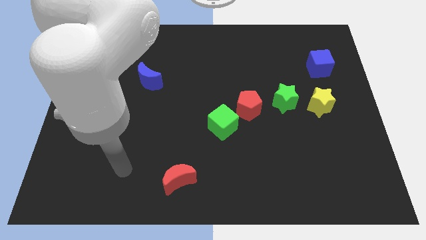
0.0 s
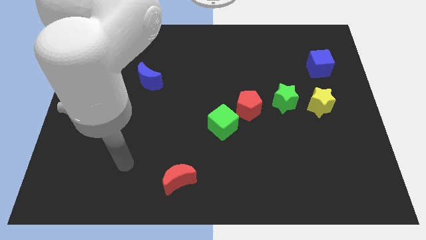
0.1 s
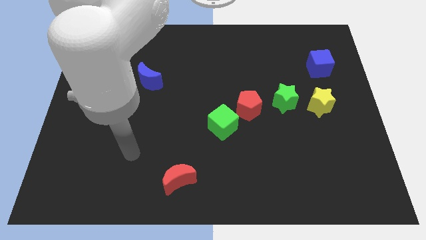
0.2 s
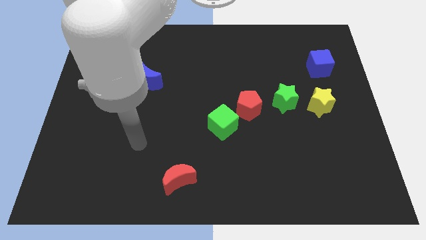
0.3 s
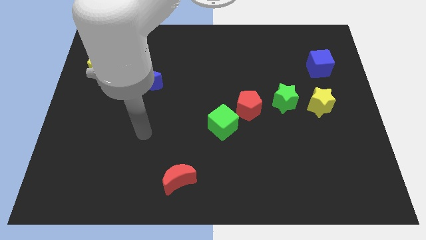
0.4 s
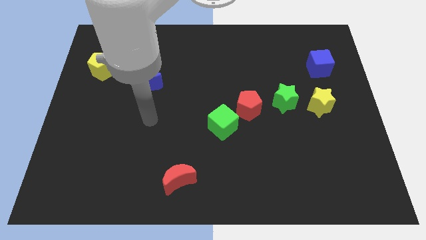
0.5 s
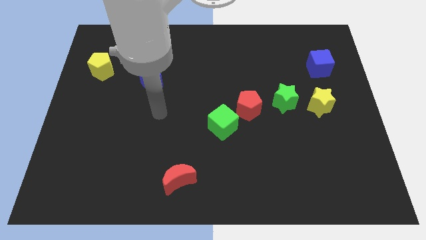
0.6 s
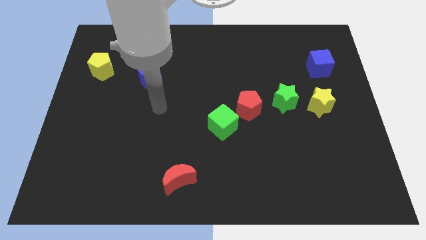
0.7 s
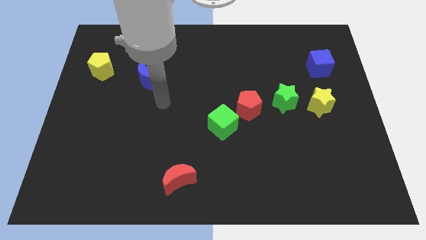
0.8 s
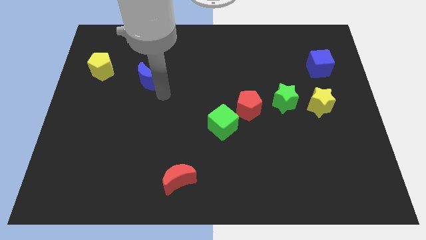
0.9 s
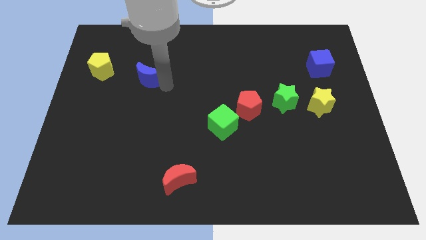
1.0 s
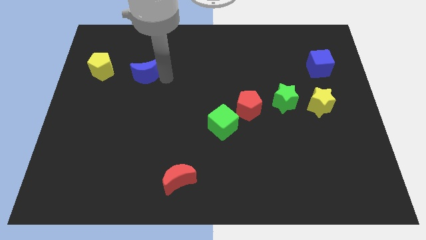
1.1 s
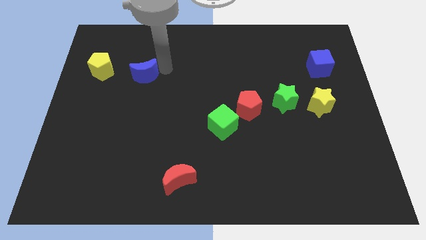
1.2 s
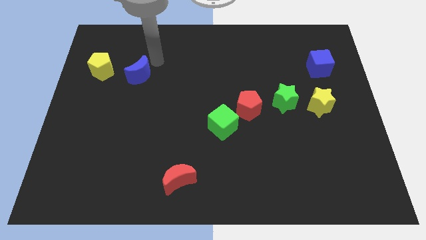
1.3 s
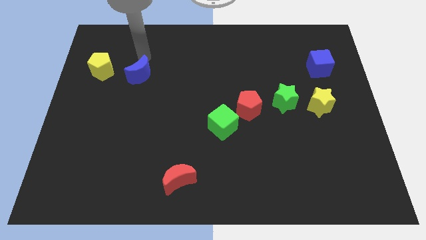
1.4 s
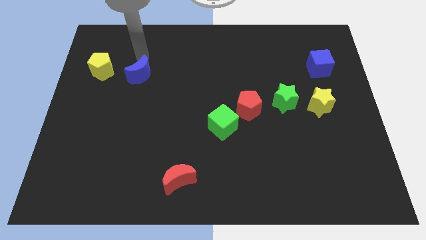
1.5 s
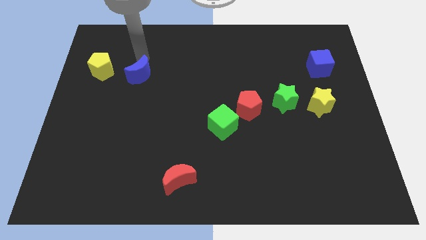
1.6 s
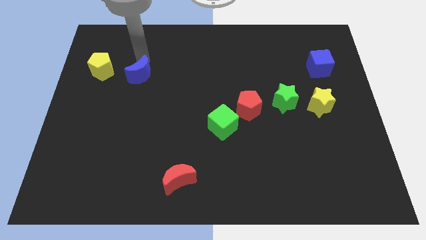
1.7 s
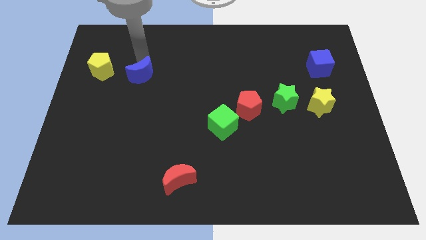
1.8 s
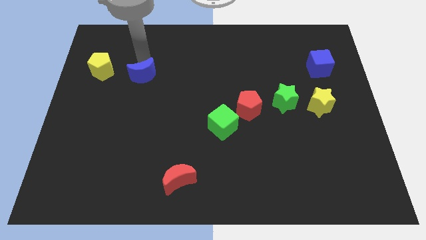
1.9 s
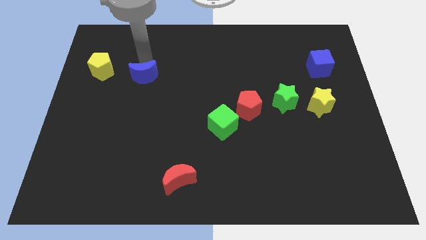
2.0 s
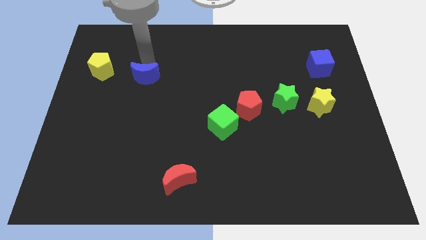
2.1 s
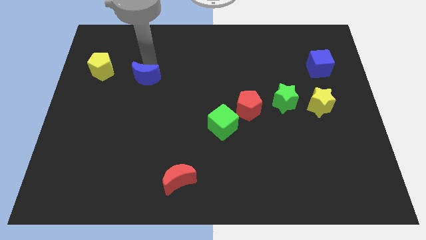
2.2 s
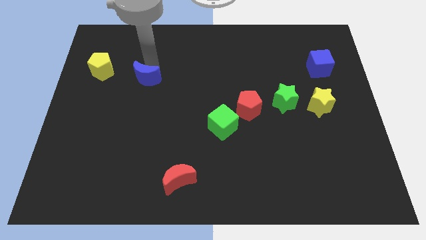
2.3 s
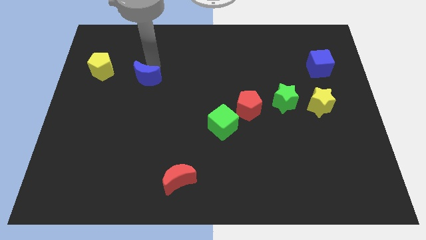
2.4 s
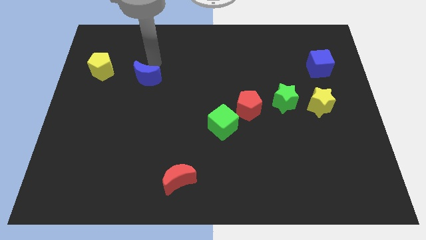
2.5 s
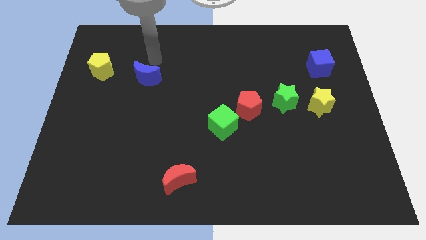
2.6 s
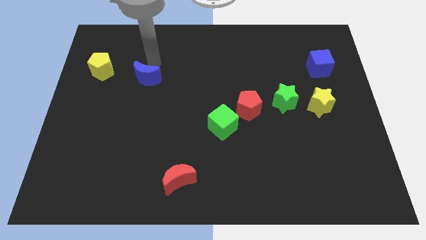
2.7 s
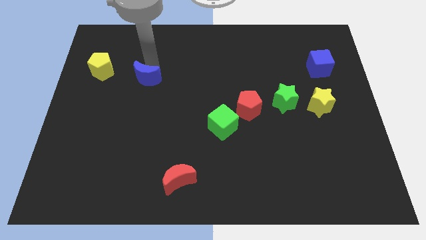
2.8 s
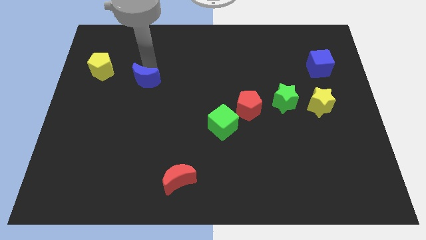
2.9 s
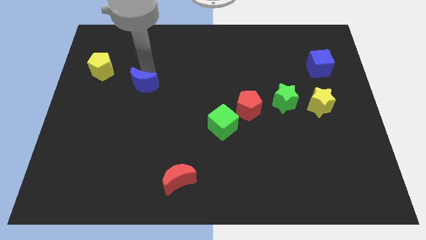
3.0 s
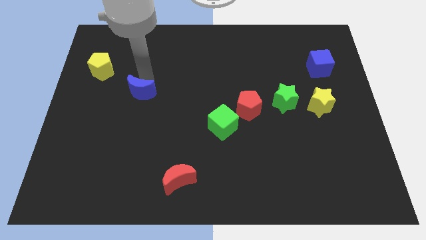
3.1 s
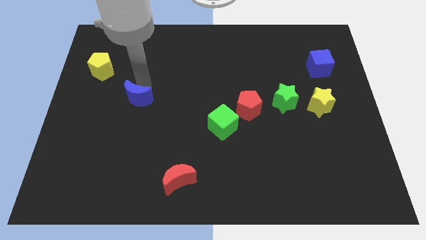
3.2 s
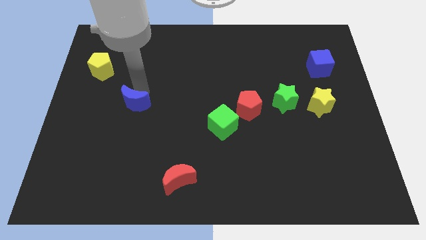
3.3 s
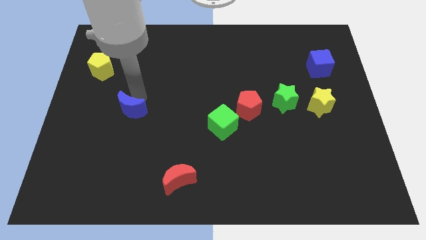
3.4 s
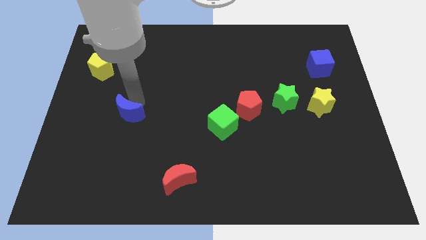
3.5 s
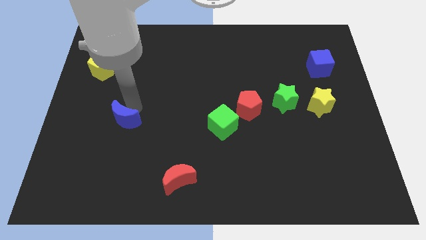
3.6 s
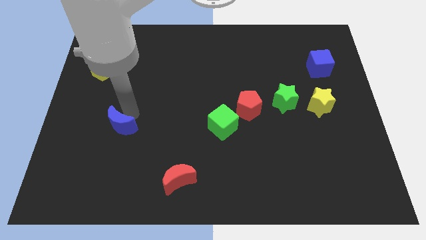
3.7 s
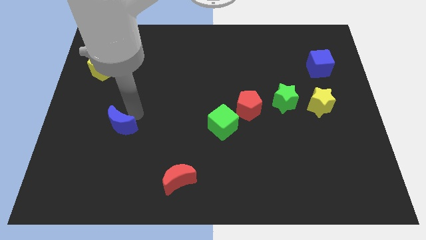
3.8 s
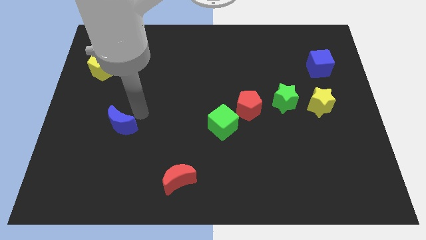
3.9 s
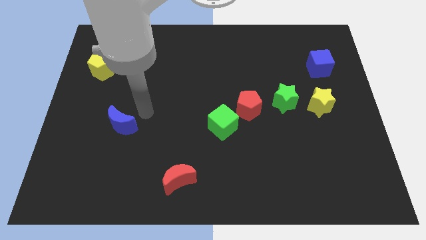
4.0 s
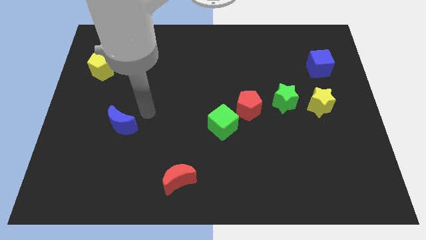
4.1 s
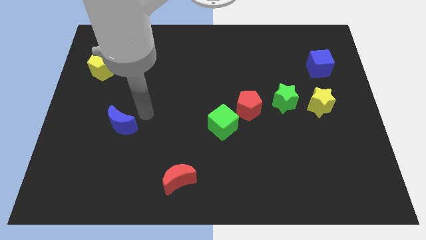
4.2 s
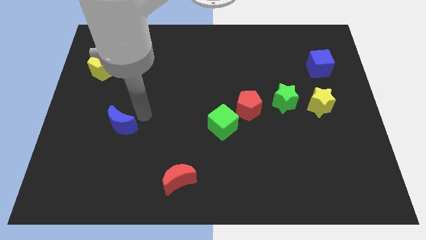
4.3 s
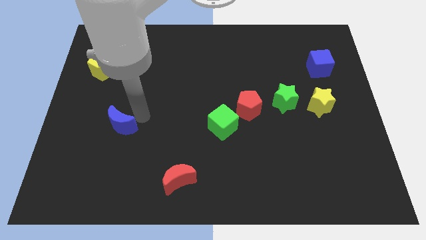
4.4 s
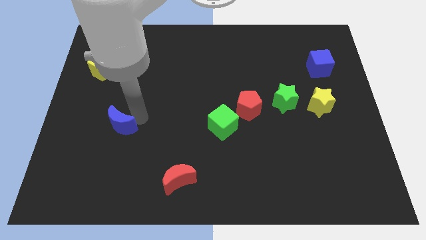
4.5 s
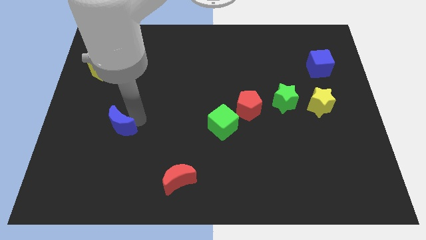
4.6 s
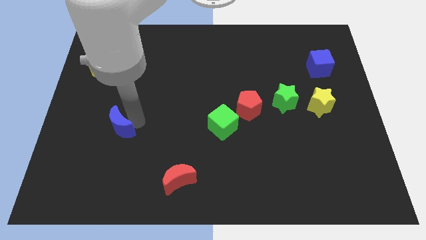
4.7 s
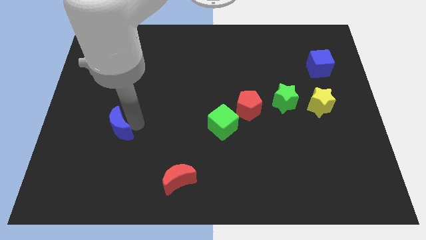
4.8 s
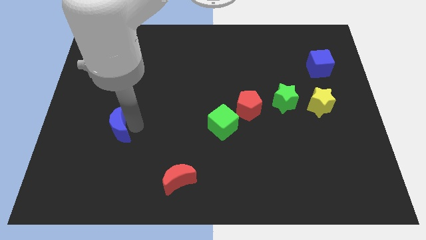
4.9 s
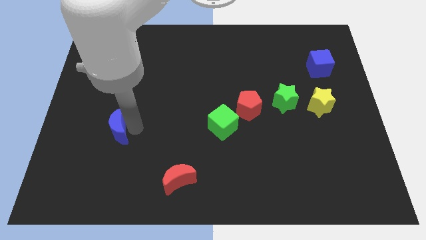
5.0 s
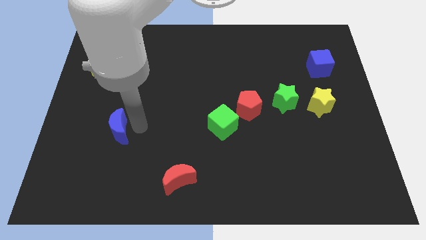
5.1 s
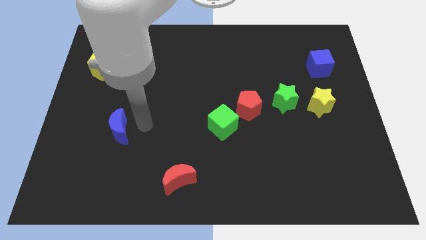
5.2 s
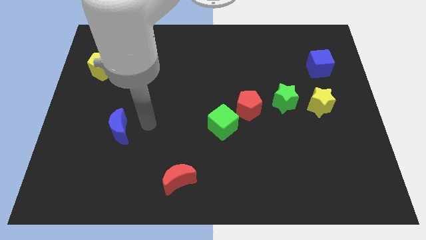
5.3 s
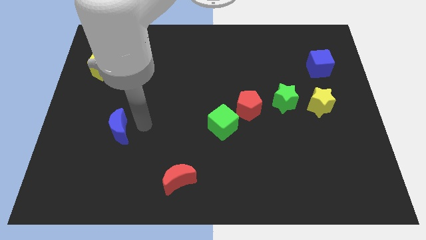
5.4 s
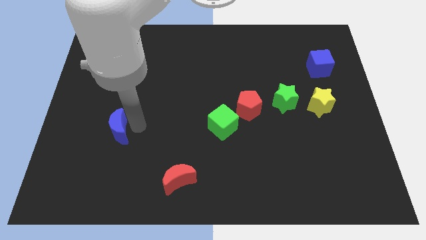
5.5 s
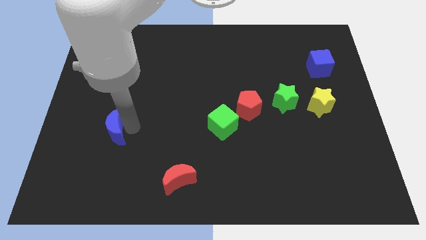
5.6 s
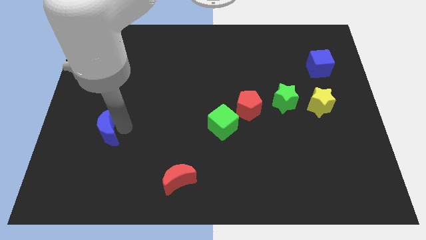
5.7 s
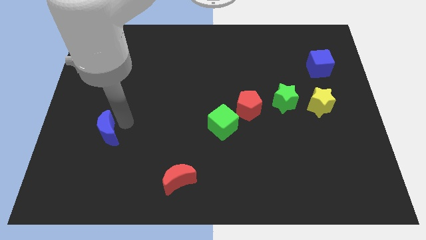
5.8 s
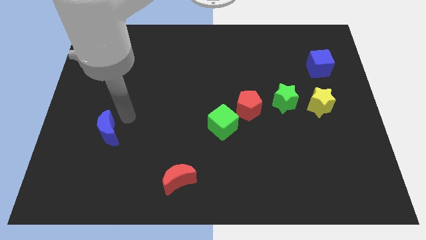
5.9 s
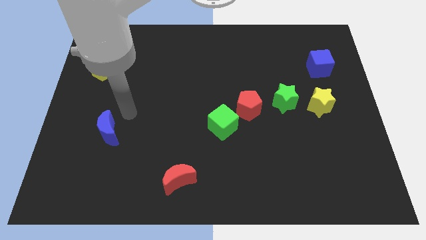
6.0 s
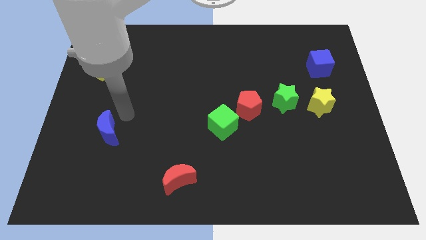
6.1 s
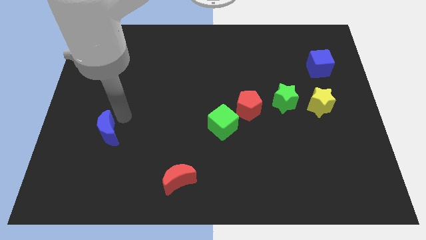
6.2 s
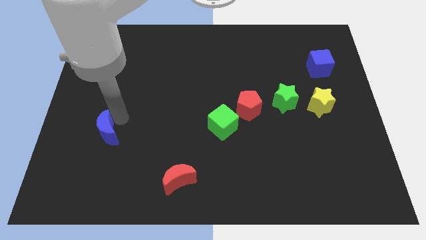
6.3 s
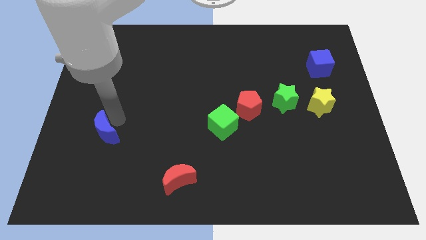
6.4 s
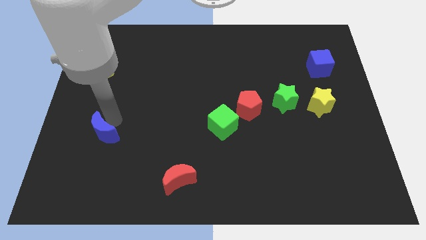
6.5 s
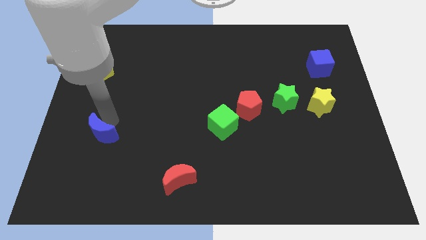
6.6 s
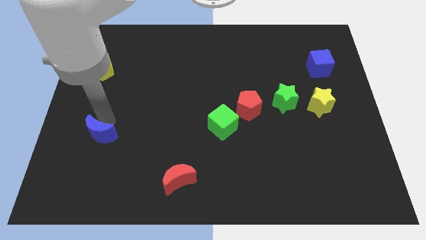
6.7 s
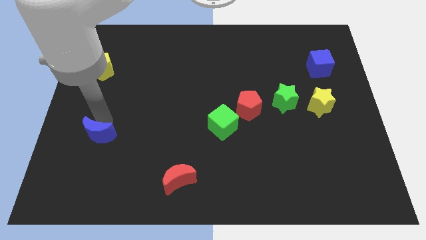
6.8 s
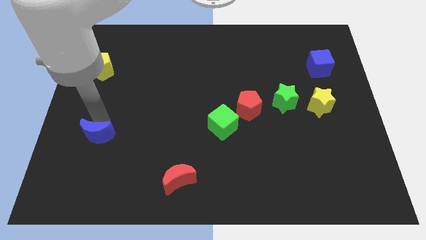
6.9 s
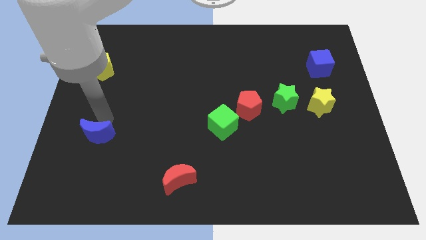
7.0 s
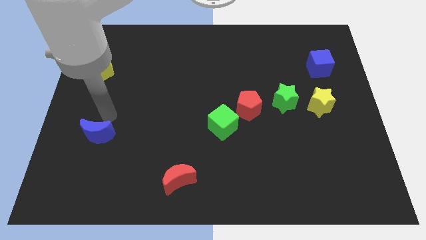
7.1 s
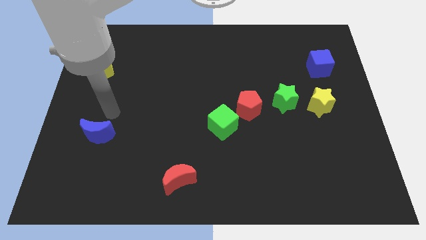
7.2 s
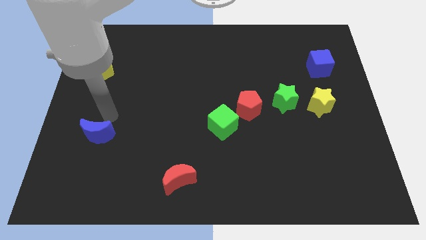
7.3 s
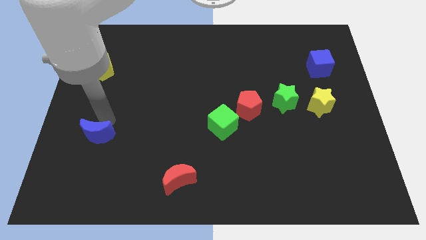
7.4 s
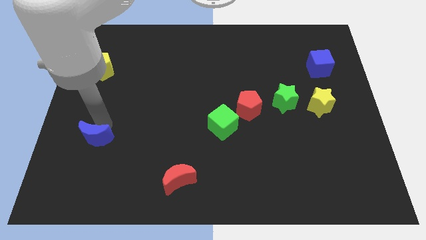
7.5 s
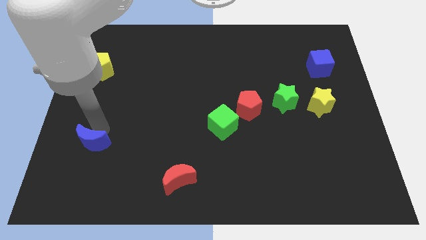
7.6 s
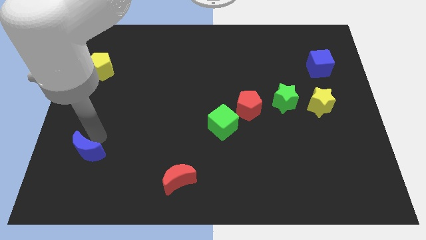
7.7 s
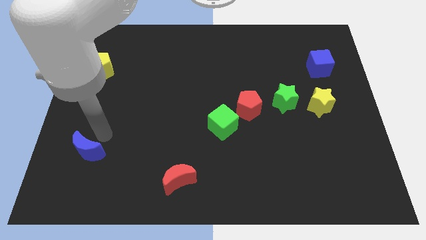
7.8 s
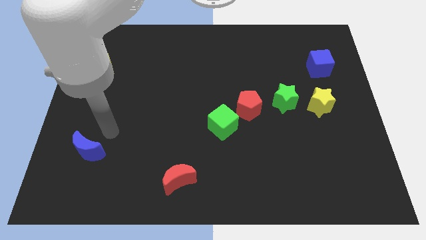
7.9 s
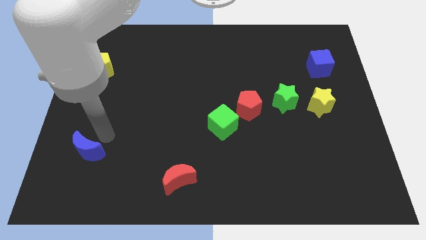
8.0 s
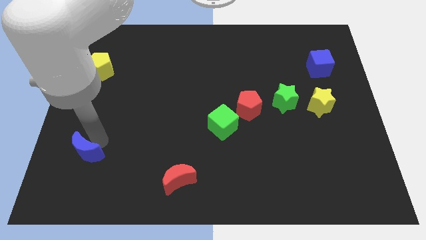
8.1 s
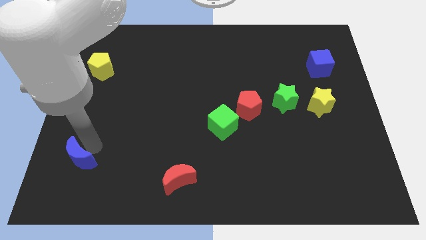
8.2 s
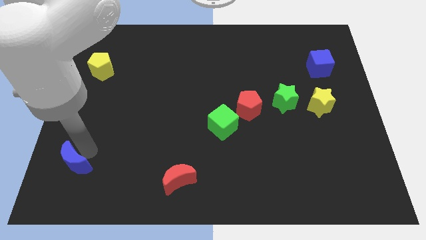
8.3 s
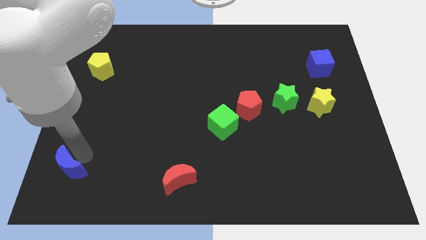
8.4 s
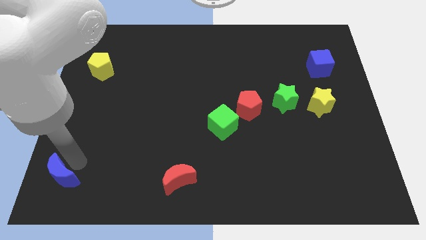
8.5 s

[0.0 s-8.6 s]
push the blue moon to the bottom left corner
